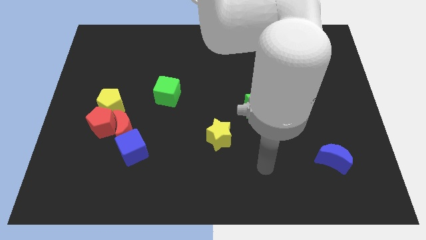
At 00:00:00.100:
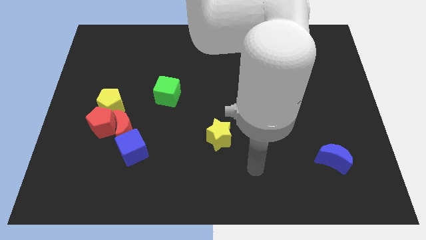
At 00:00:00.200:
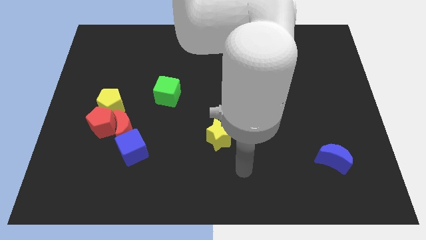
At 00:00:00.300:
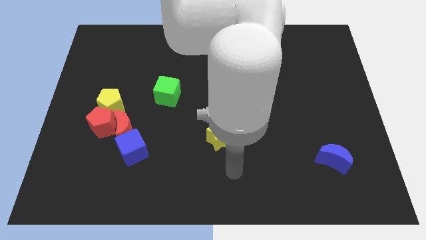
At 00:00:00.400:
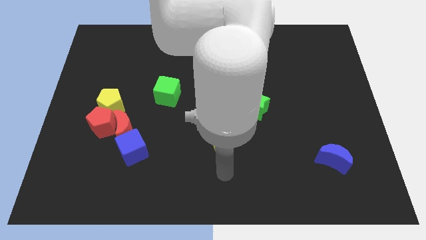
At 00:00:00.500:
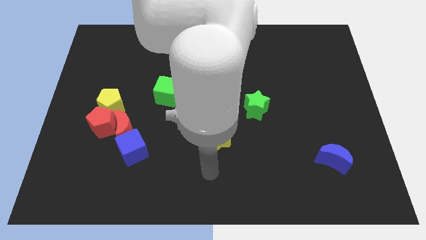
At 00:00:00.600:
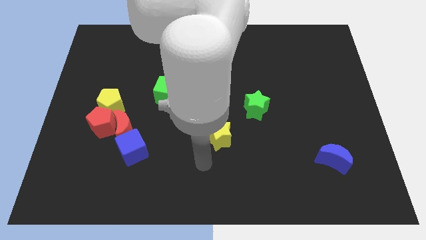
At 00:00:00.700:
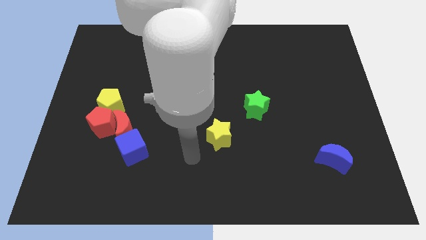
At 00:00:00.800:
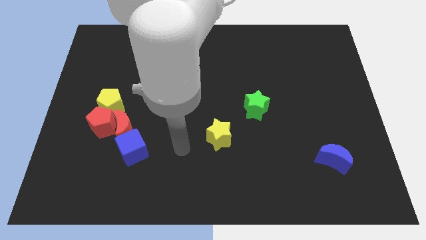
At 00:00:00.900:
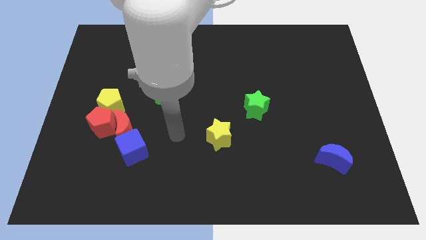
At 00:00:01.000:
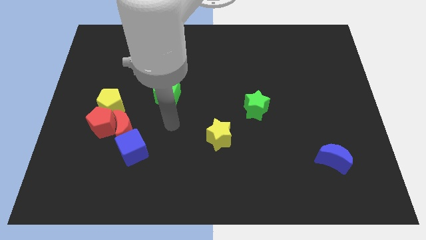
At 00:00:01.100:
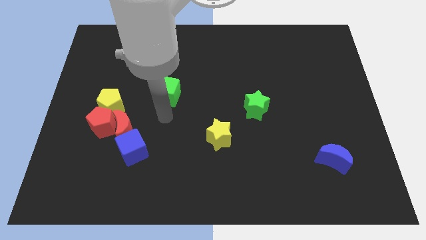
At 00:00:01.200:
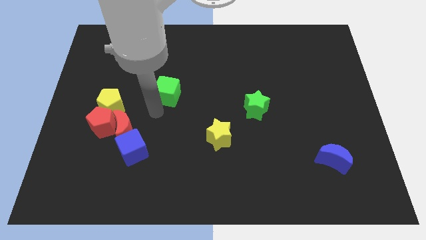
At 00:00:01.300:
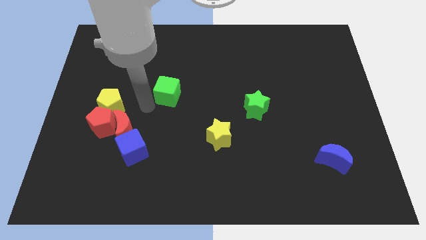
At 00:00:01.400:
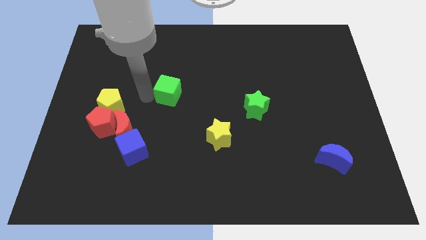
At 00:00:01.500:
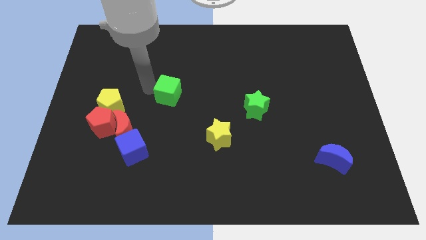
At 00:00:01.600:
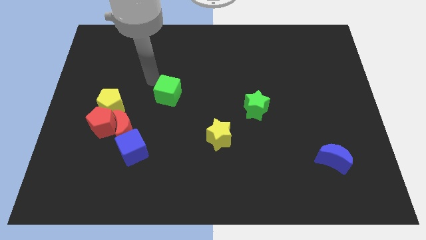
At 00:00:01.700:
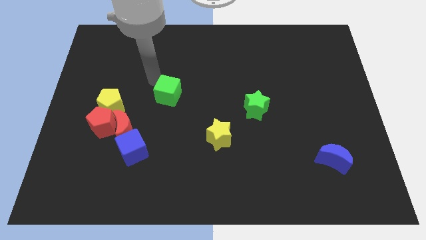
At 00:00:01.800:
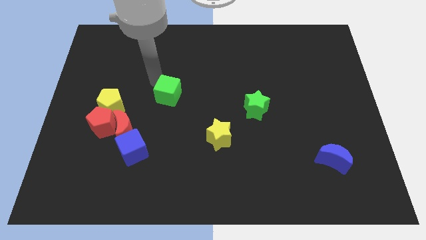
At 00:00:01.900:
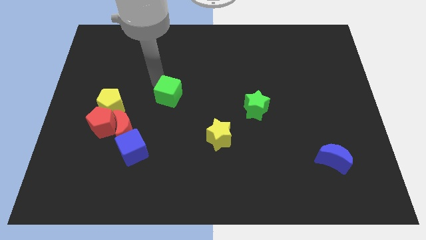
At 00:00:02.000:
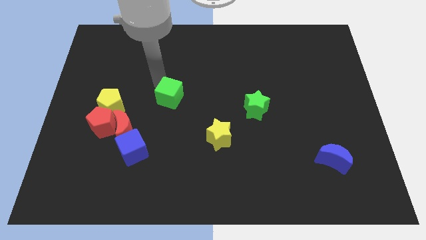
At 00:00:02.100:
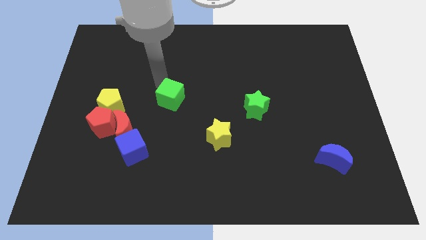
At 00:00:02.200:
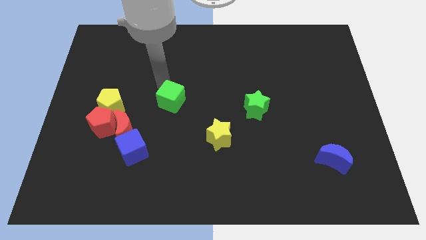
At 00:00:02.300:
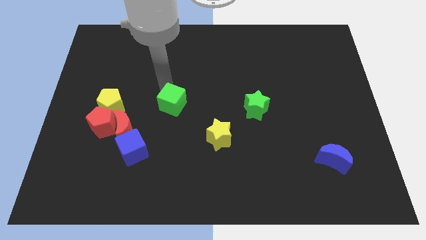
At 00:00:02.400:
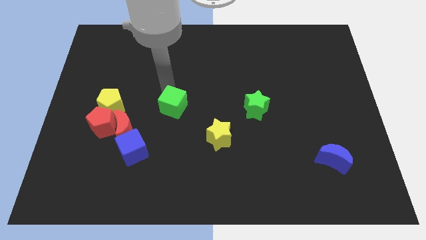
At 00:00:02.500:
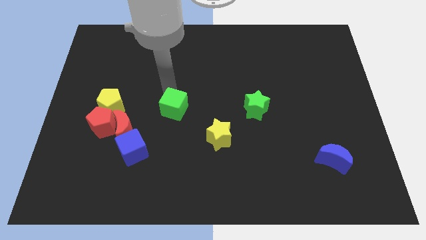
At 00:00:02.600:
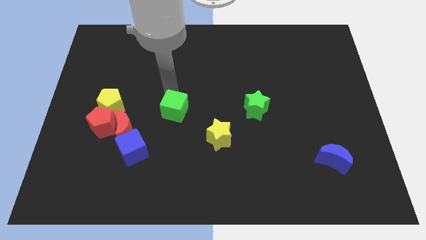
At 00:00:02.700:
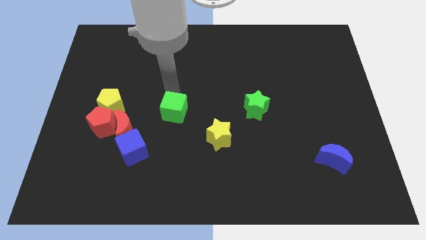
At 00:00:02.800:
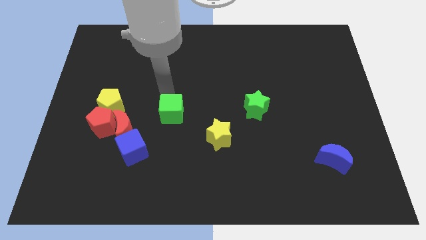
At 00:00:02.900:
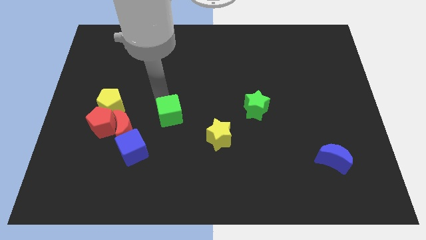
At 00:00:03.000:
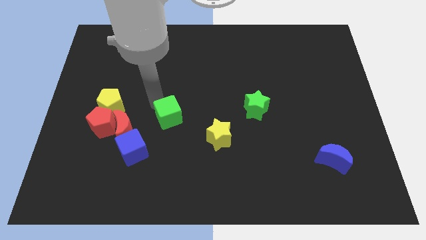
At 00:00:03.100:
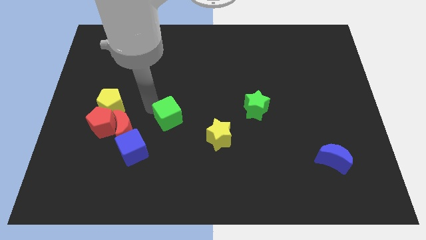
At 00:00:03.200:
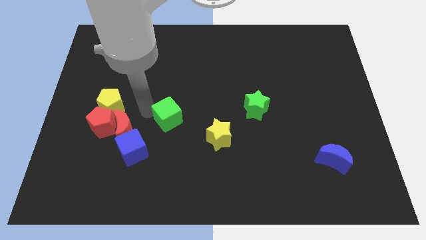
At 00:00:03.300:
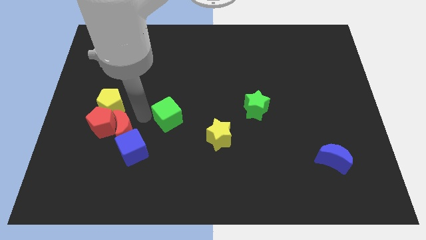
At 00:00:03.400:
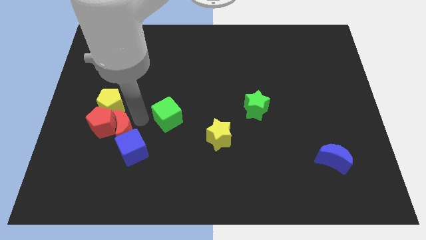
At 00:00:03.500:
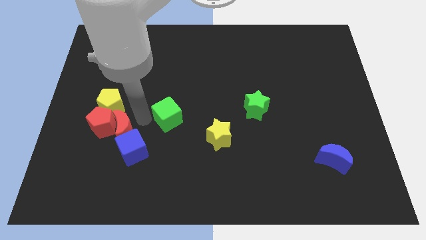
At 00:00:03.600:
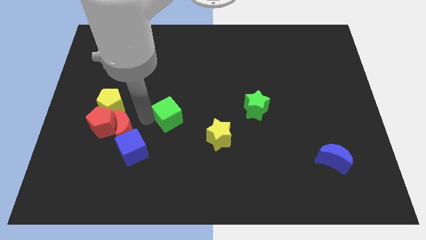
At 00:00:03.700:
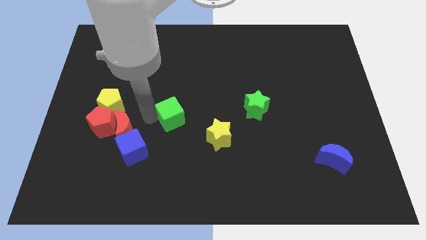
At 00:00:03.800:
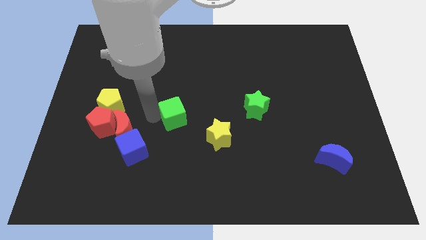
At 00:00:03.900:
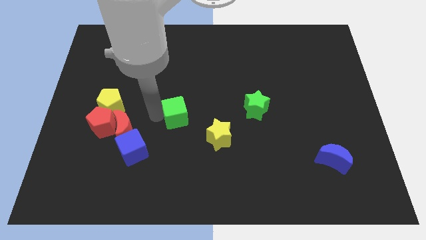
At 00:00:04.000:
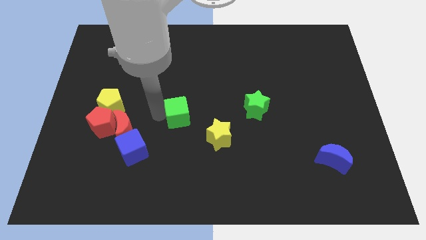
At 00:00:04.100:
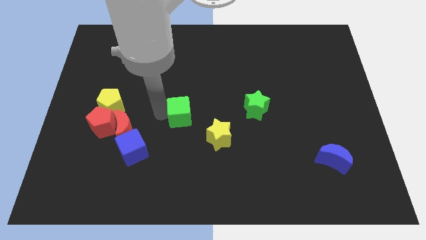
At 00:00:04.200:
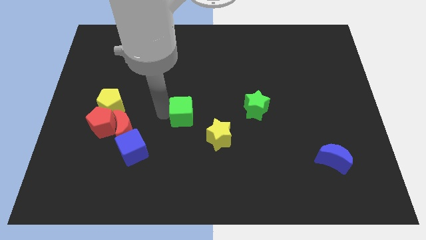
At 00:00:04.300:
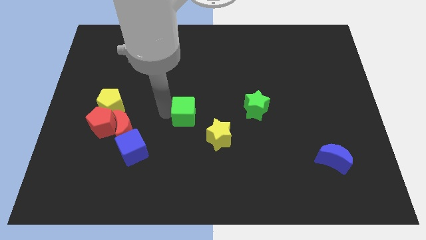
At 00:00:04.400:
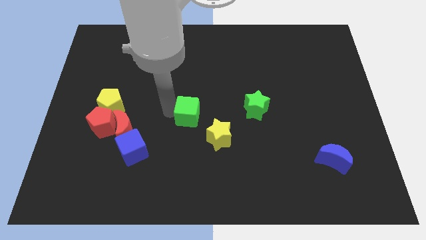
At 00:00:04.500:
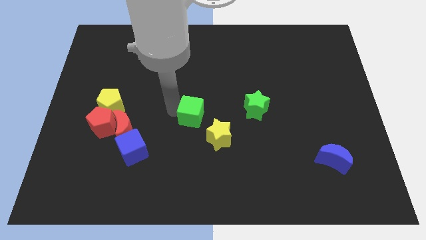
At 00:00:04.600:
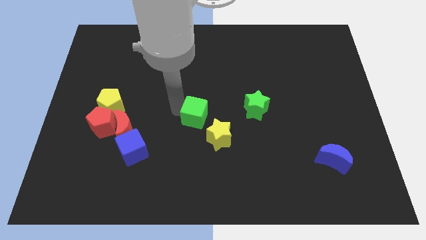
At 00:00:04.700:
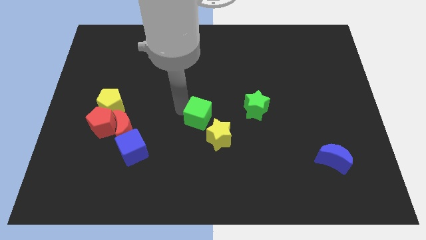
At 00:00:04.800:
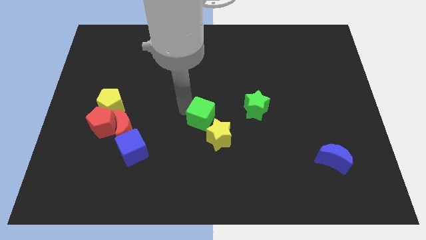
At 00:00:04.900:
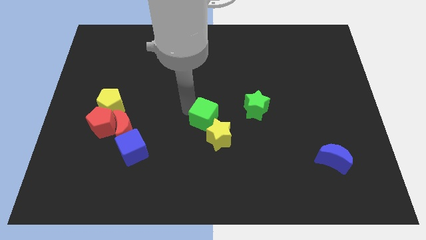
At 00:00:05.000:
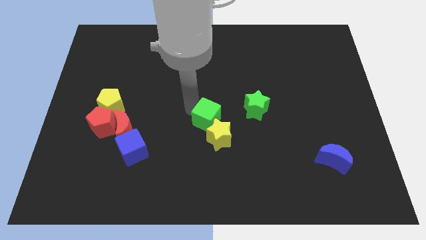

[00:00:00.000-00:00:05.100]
move the green cube to the yellow star

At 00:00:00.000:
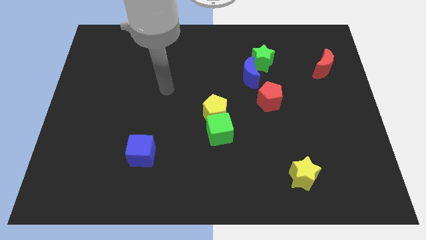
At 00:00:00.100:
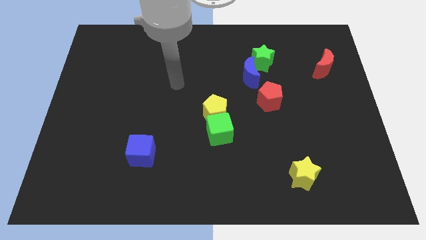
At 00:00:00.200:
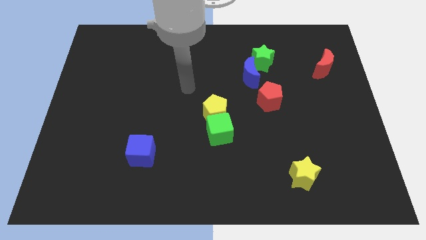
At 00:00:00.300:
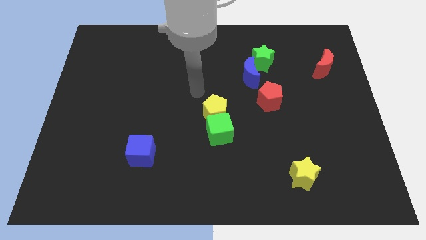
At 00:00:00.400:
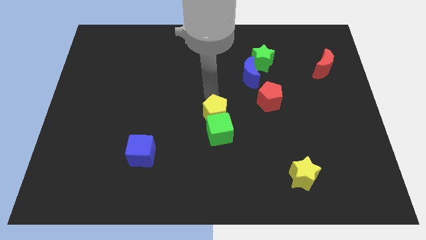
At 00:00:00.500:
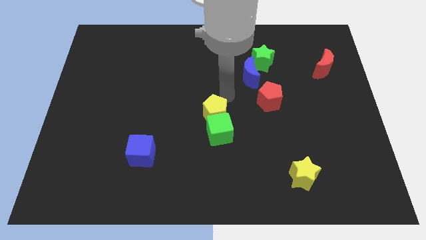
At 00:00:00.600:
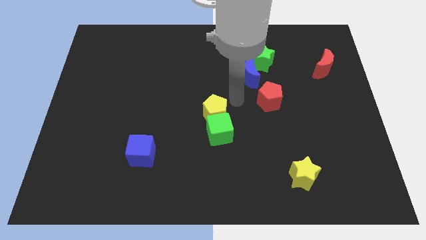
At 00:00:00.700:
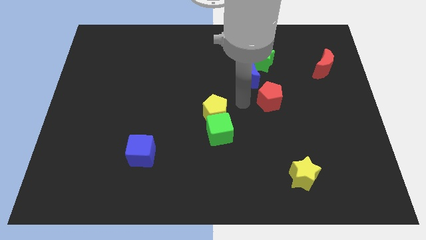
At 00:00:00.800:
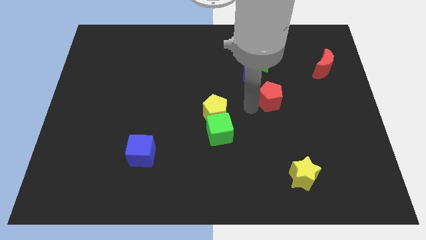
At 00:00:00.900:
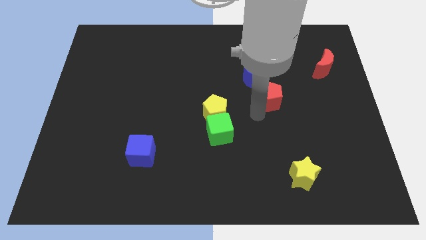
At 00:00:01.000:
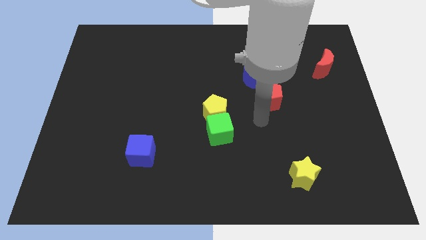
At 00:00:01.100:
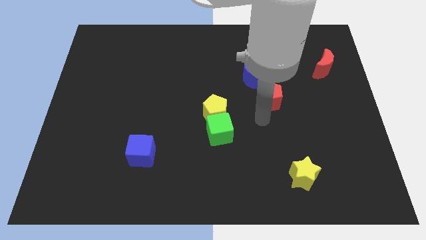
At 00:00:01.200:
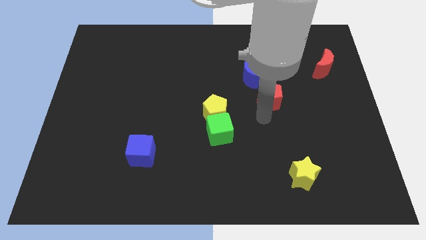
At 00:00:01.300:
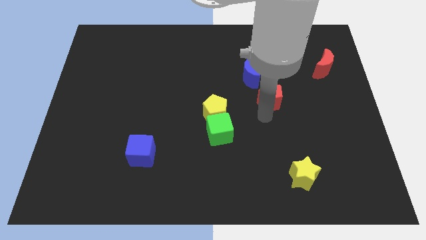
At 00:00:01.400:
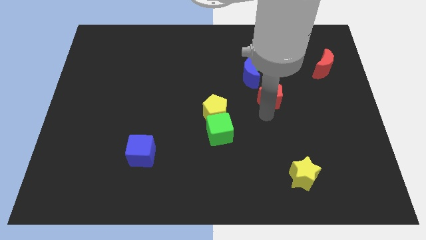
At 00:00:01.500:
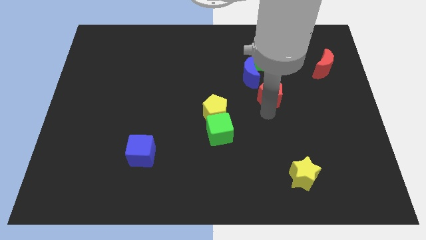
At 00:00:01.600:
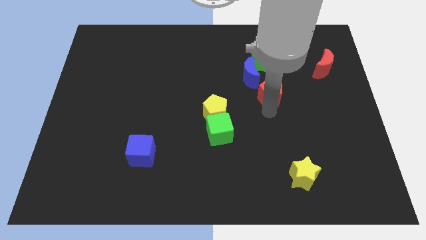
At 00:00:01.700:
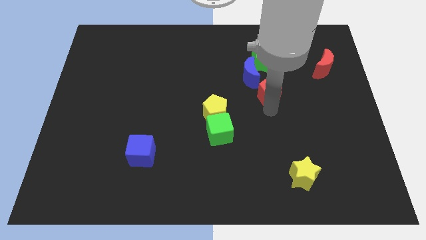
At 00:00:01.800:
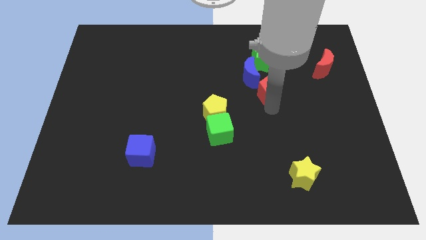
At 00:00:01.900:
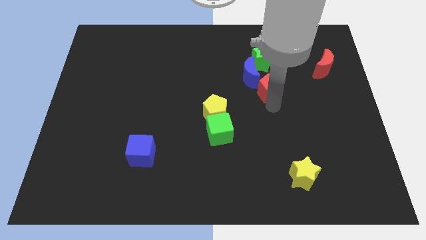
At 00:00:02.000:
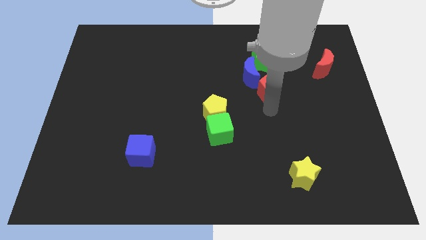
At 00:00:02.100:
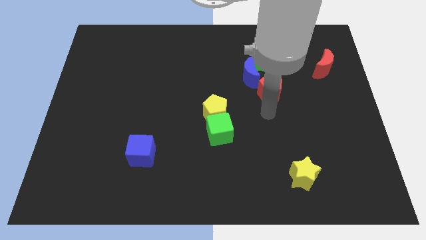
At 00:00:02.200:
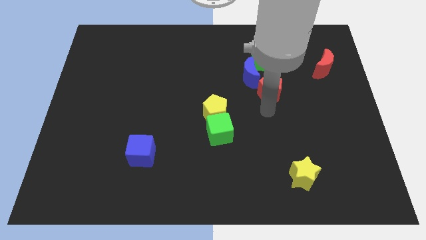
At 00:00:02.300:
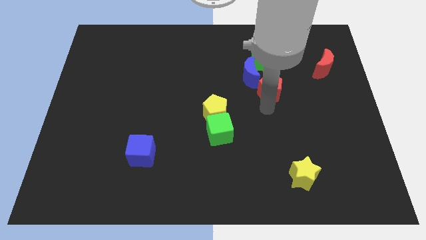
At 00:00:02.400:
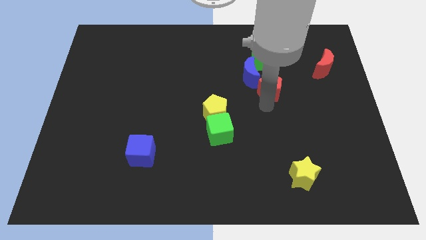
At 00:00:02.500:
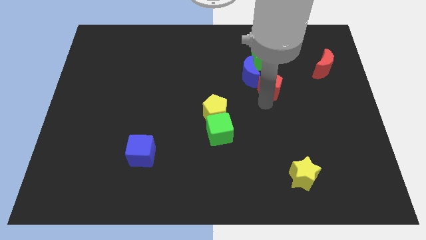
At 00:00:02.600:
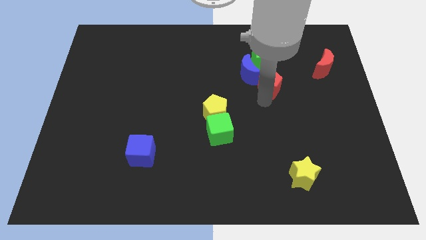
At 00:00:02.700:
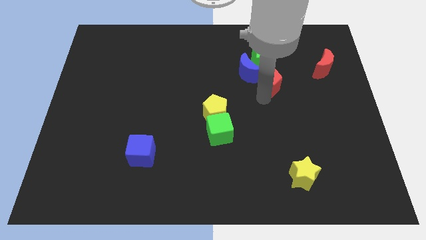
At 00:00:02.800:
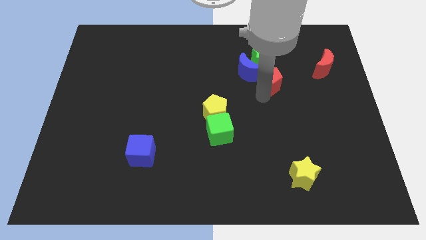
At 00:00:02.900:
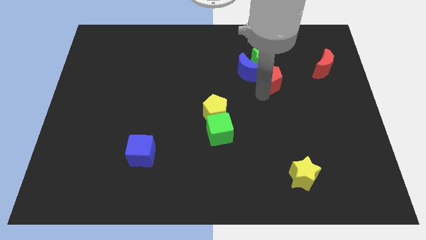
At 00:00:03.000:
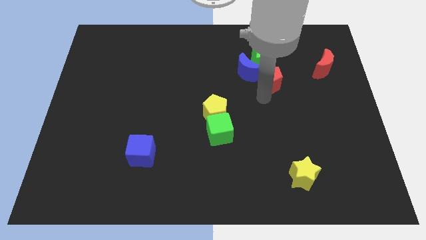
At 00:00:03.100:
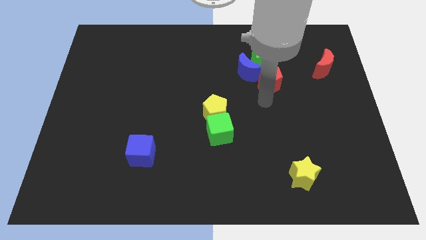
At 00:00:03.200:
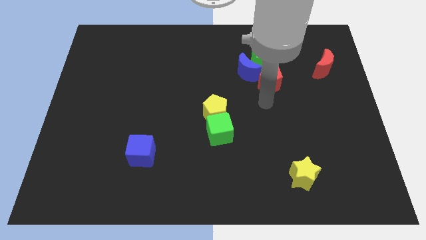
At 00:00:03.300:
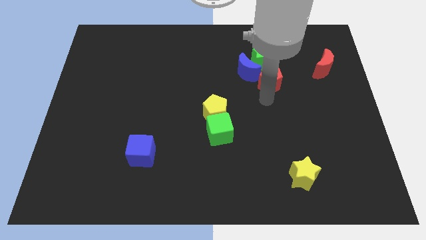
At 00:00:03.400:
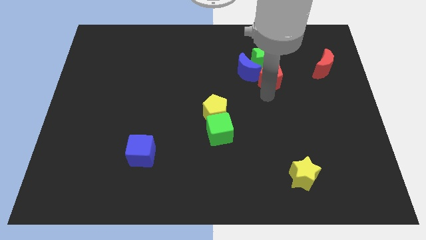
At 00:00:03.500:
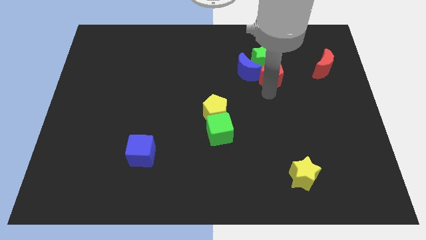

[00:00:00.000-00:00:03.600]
slide the red pentagon towards the green star
